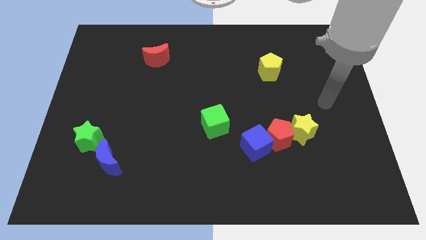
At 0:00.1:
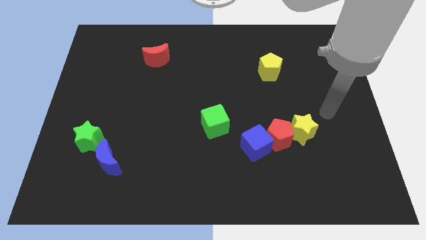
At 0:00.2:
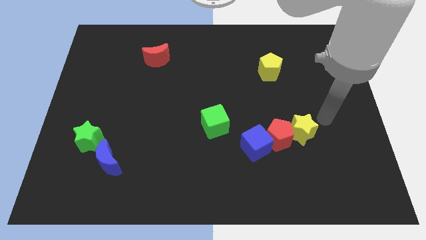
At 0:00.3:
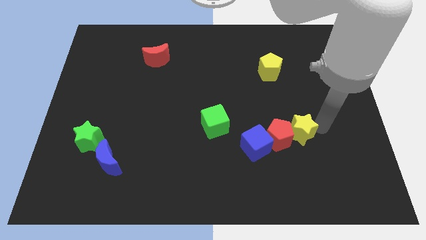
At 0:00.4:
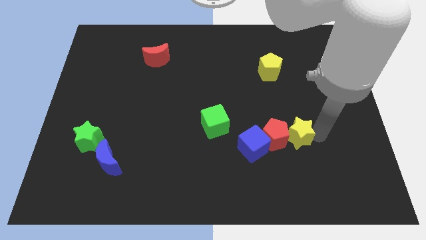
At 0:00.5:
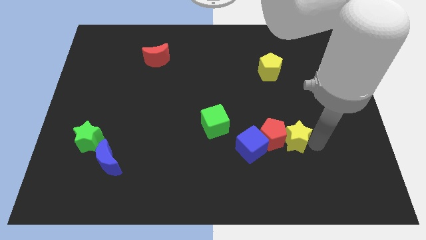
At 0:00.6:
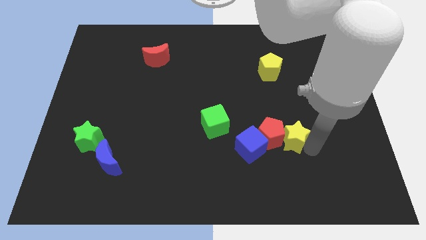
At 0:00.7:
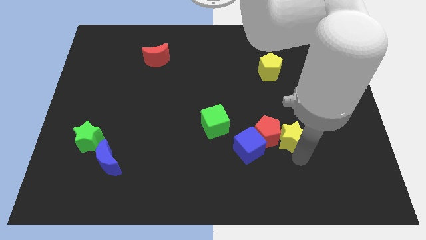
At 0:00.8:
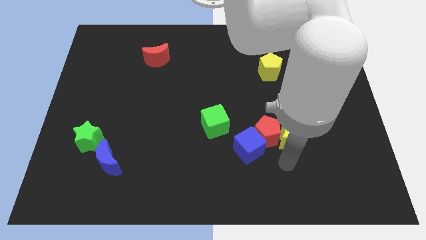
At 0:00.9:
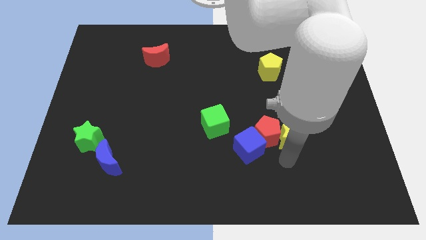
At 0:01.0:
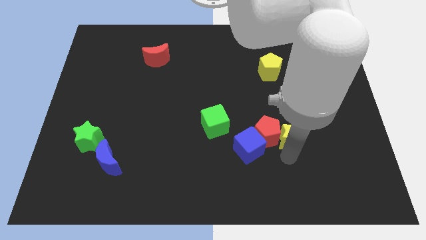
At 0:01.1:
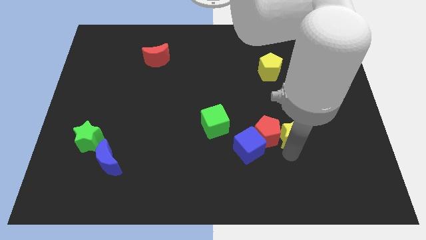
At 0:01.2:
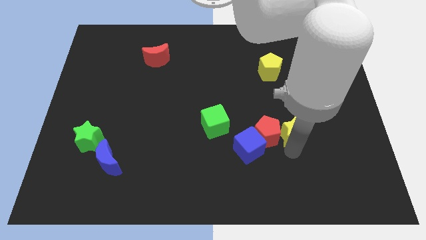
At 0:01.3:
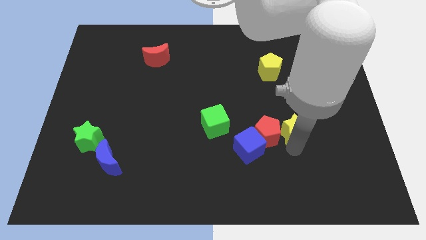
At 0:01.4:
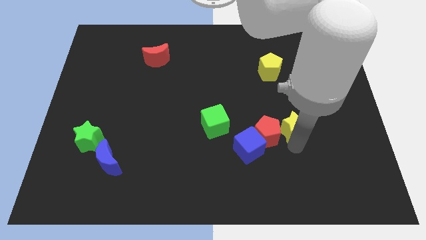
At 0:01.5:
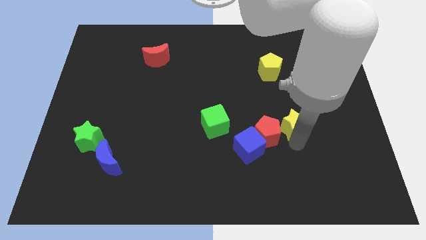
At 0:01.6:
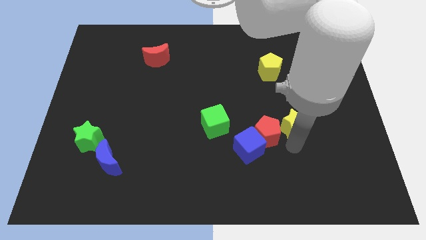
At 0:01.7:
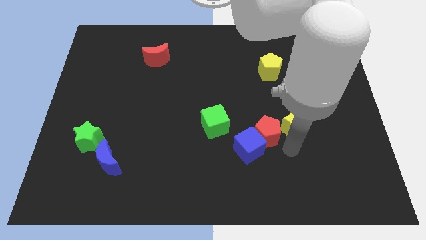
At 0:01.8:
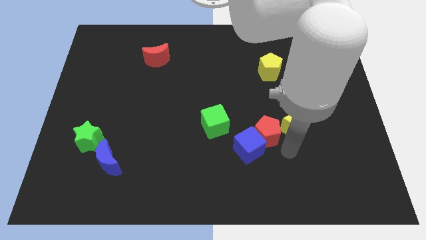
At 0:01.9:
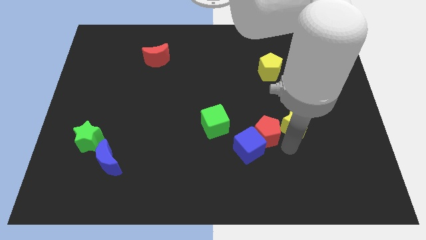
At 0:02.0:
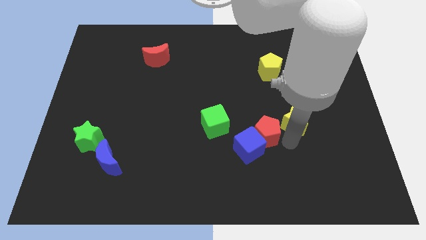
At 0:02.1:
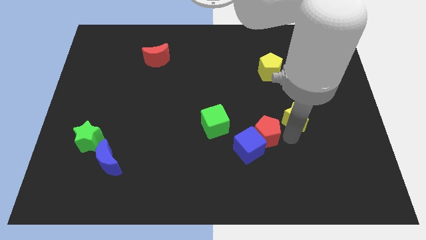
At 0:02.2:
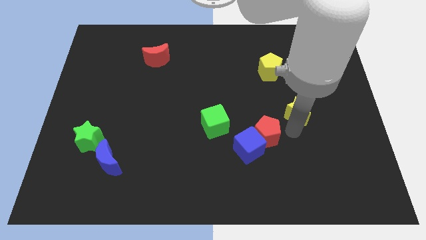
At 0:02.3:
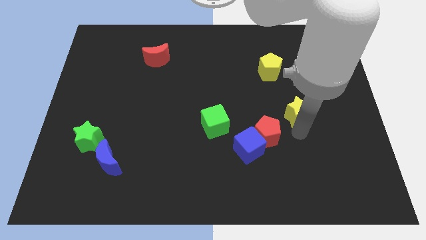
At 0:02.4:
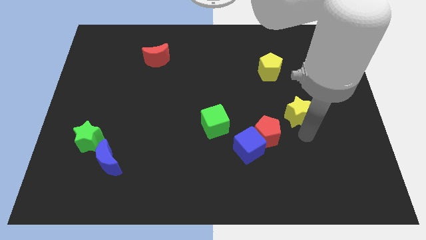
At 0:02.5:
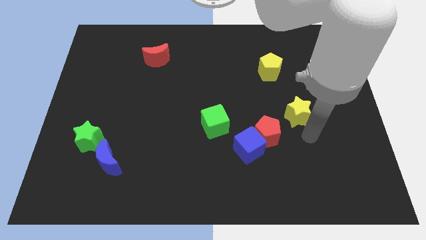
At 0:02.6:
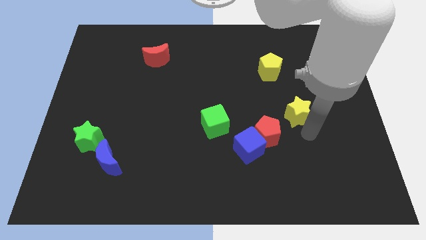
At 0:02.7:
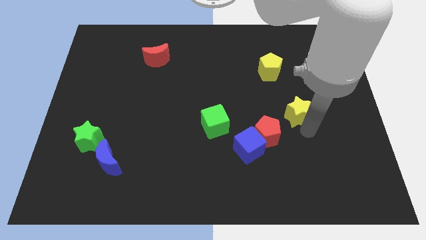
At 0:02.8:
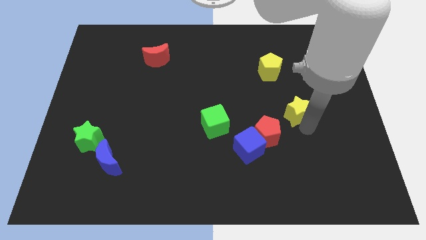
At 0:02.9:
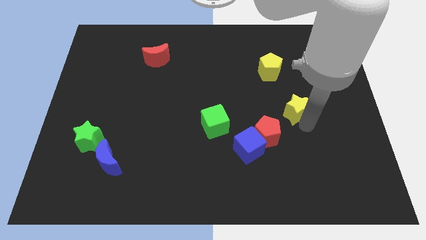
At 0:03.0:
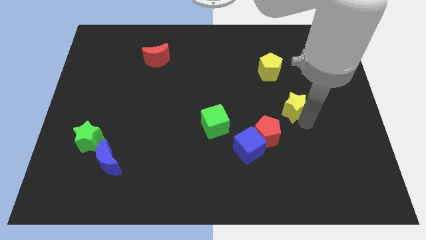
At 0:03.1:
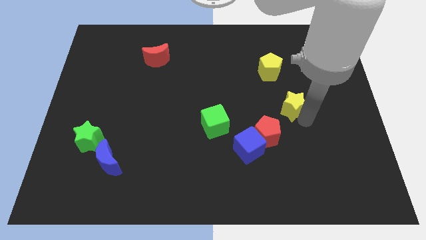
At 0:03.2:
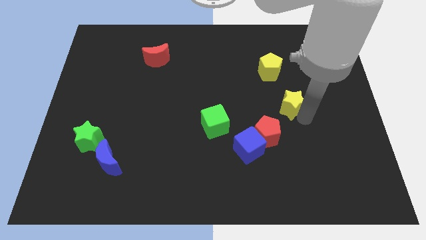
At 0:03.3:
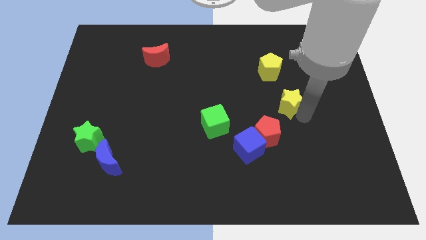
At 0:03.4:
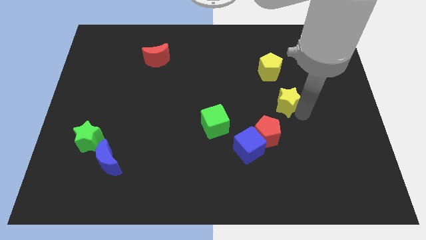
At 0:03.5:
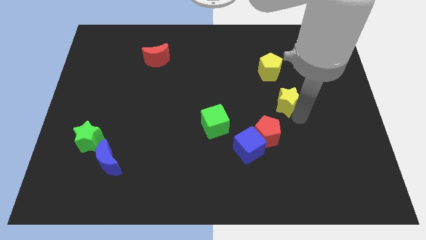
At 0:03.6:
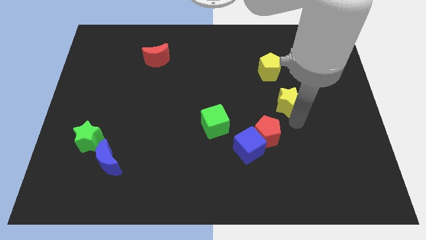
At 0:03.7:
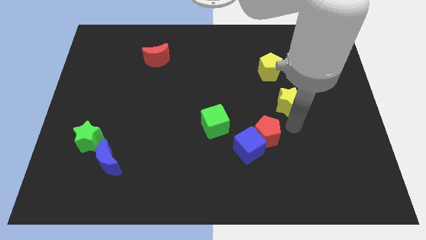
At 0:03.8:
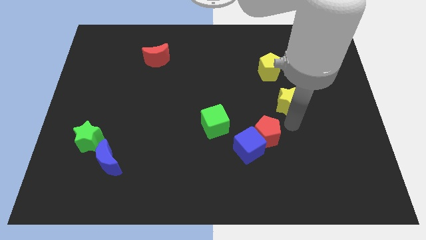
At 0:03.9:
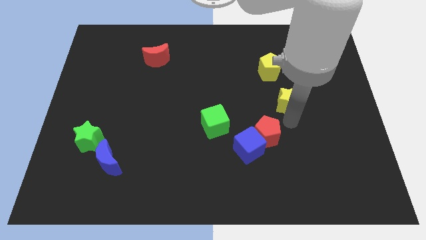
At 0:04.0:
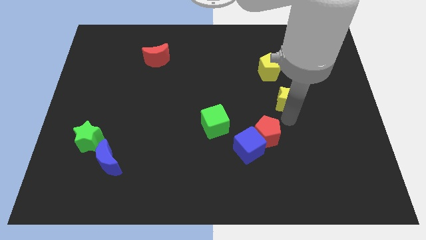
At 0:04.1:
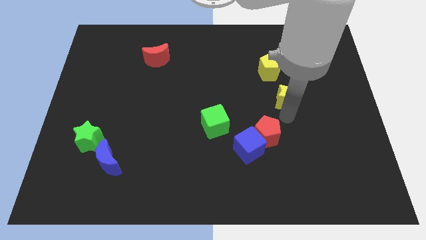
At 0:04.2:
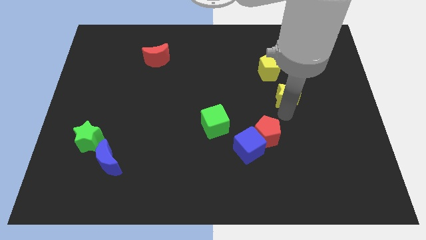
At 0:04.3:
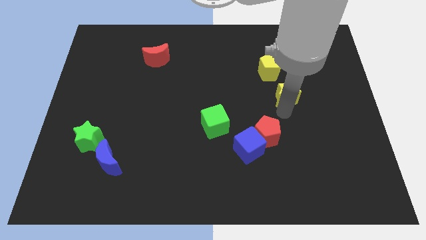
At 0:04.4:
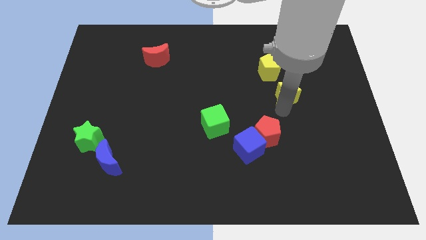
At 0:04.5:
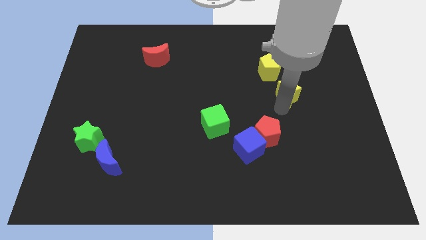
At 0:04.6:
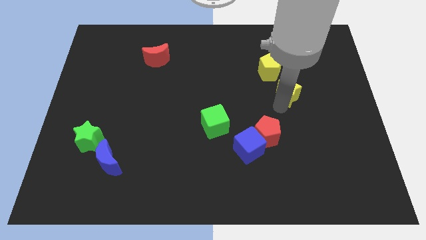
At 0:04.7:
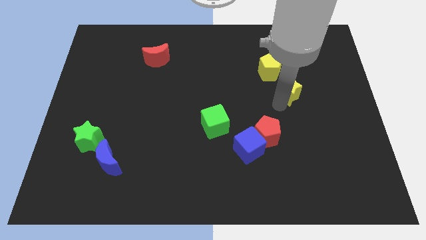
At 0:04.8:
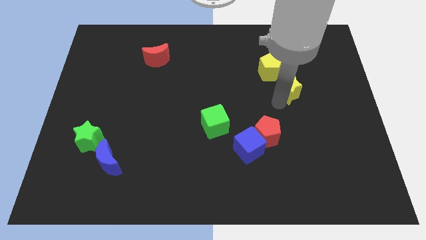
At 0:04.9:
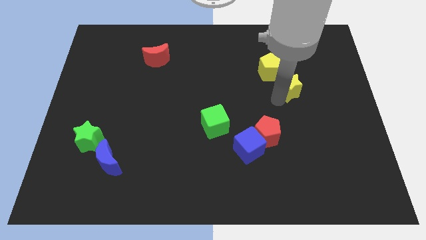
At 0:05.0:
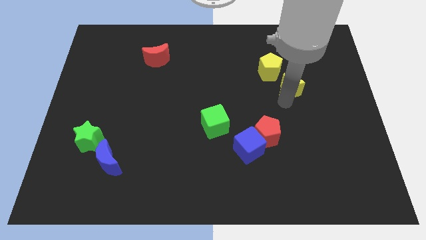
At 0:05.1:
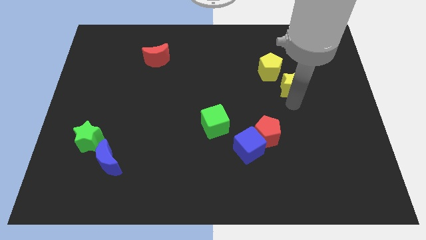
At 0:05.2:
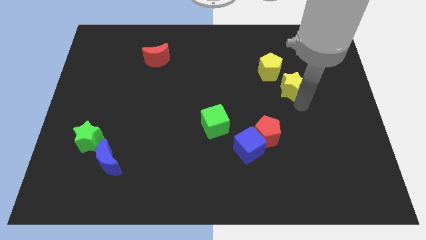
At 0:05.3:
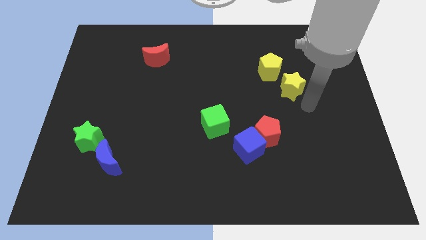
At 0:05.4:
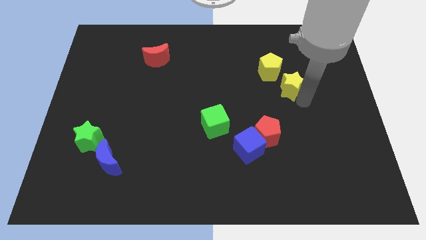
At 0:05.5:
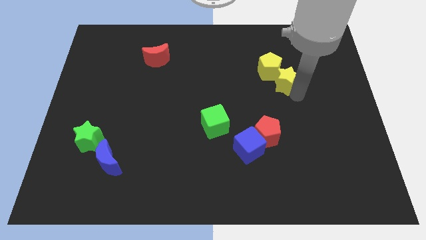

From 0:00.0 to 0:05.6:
push the yellow star next to the yellow pentagon

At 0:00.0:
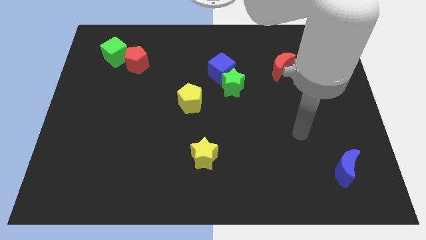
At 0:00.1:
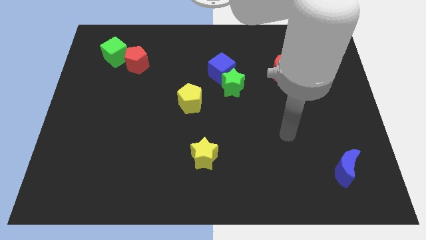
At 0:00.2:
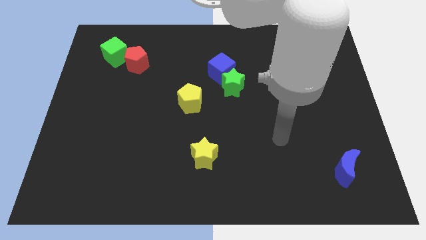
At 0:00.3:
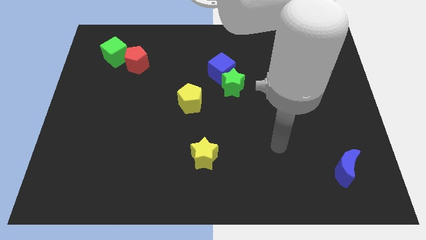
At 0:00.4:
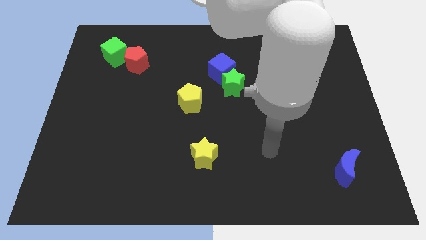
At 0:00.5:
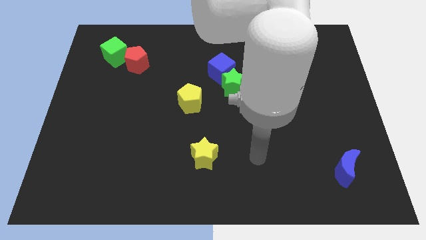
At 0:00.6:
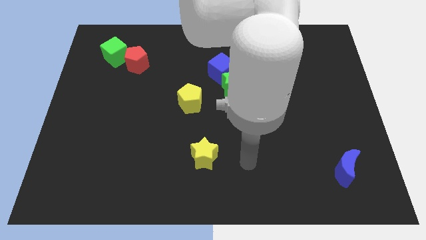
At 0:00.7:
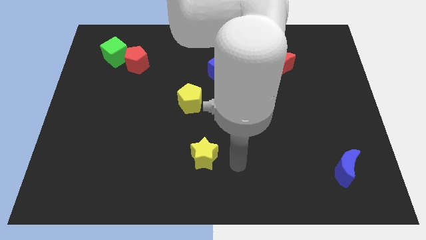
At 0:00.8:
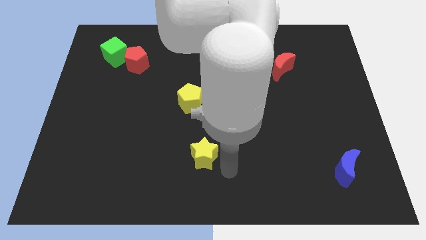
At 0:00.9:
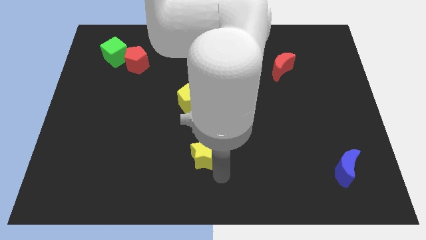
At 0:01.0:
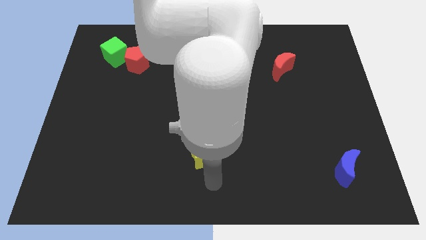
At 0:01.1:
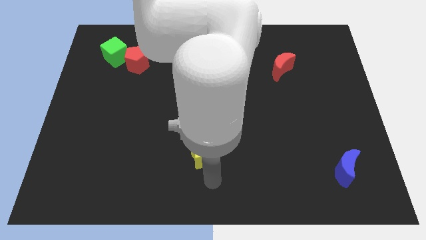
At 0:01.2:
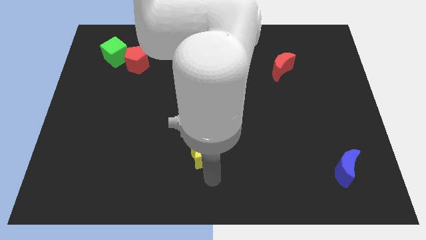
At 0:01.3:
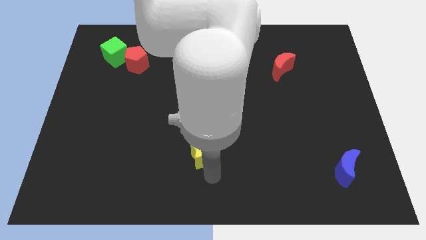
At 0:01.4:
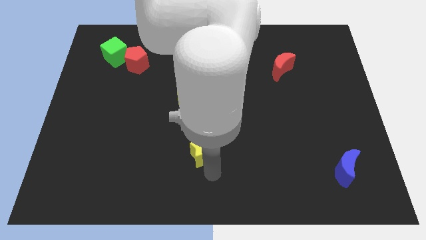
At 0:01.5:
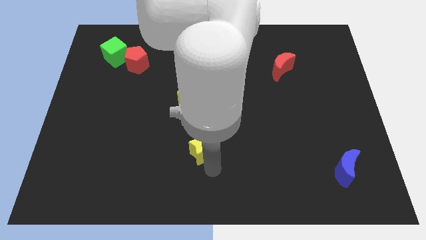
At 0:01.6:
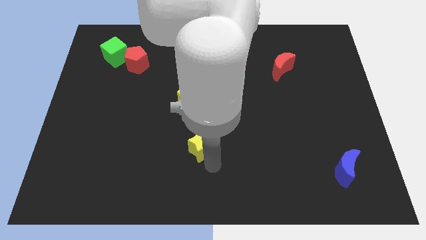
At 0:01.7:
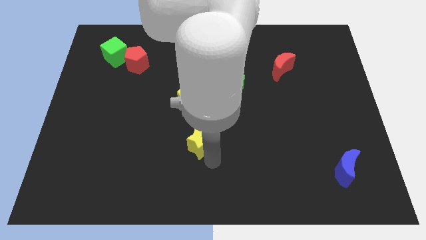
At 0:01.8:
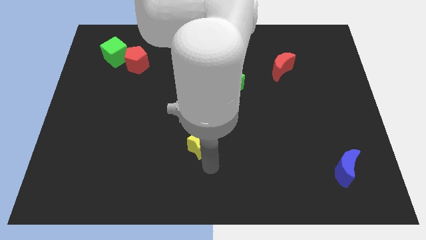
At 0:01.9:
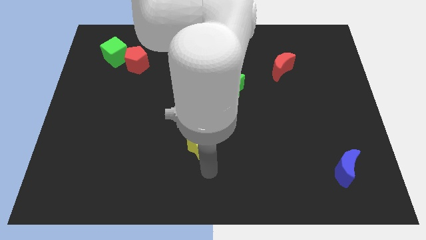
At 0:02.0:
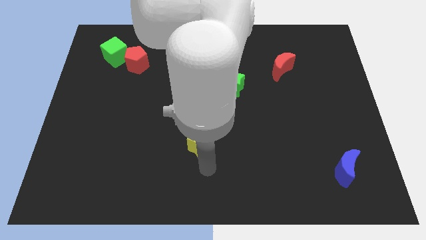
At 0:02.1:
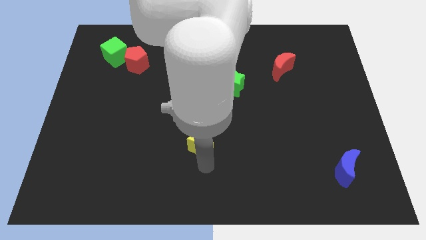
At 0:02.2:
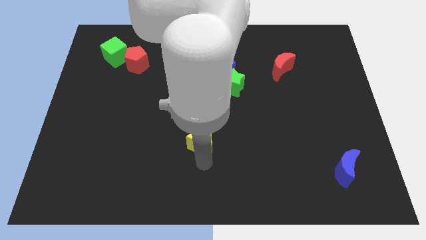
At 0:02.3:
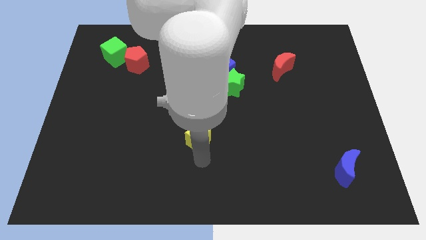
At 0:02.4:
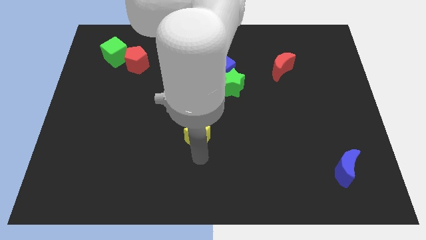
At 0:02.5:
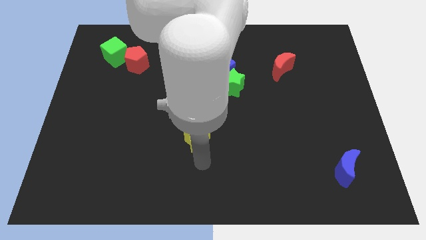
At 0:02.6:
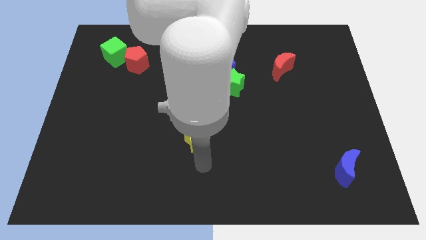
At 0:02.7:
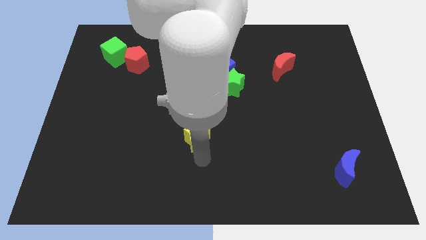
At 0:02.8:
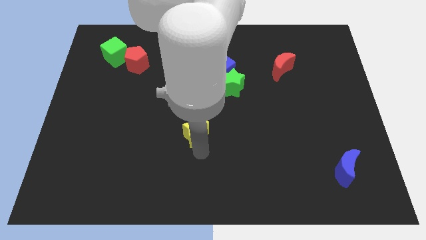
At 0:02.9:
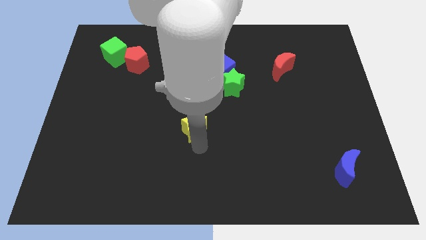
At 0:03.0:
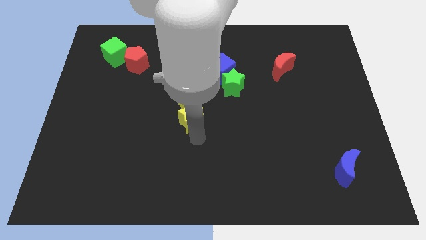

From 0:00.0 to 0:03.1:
move the yellow star close to the yellow pentagon
